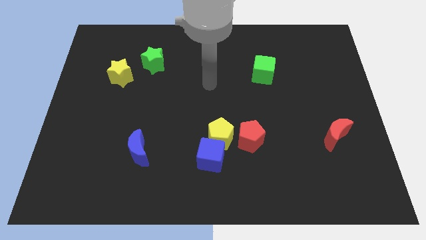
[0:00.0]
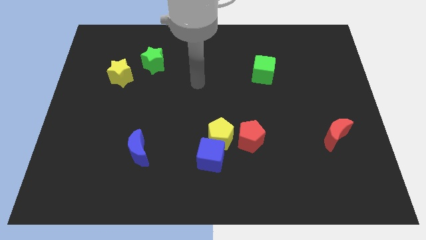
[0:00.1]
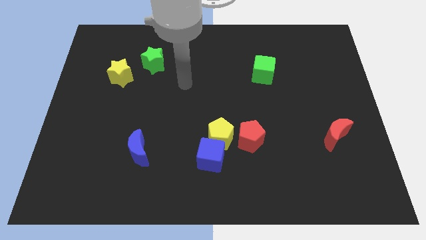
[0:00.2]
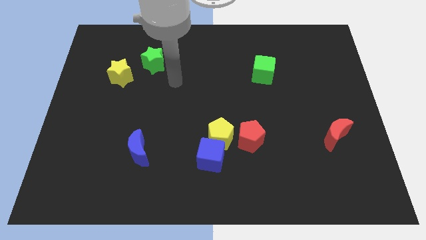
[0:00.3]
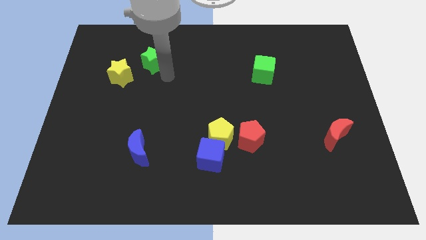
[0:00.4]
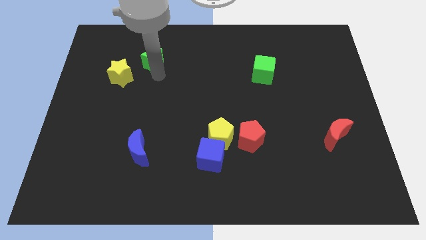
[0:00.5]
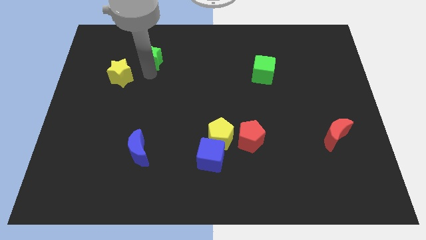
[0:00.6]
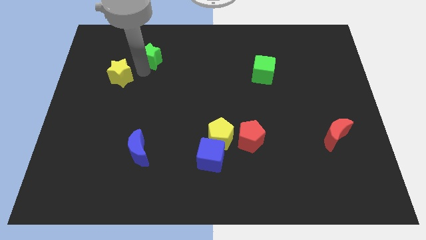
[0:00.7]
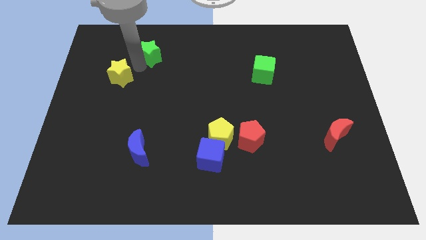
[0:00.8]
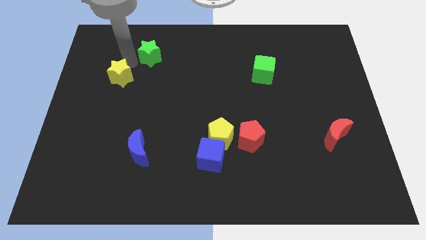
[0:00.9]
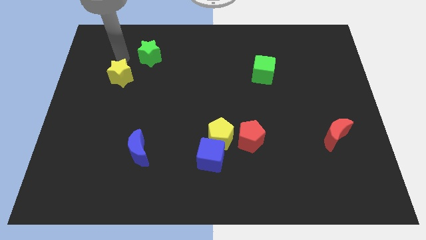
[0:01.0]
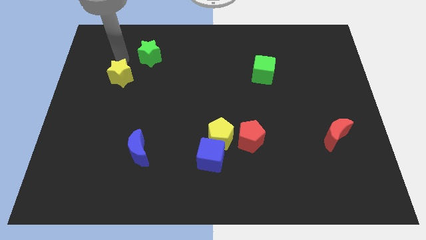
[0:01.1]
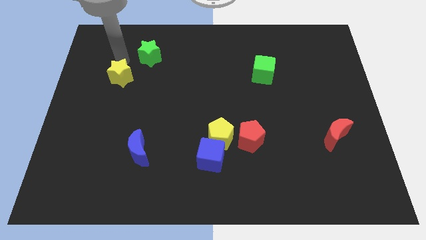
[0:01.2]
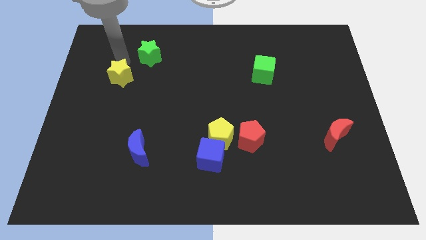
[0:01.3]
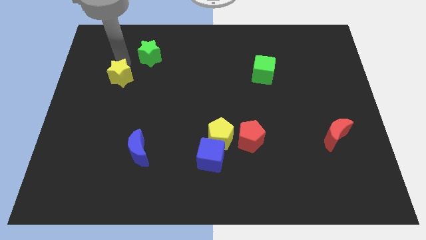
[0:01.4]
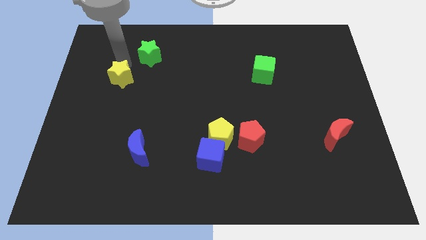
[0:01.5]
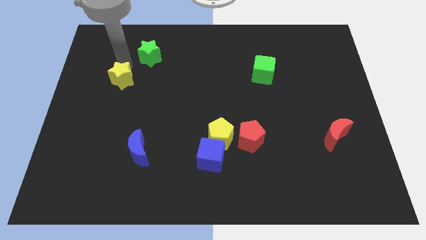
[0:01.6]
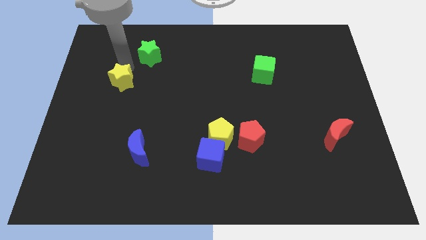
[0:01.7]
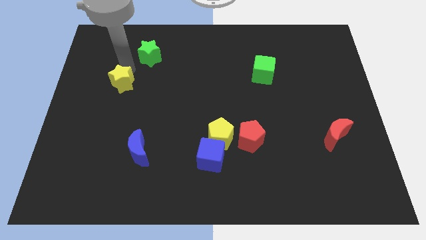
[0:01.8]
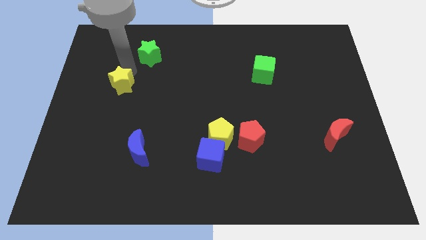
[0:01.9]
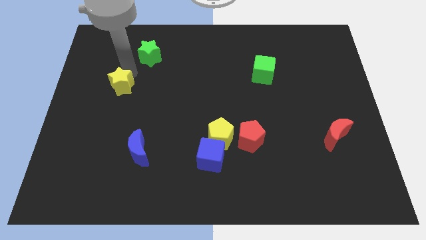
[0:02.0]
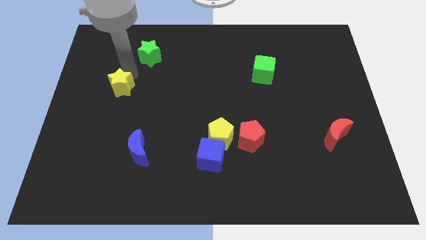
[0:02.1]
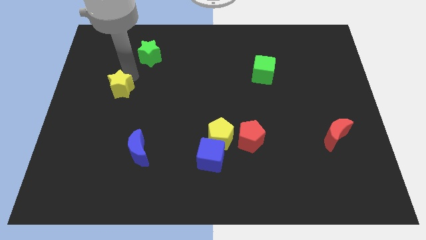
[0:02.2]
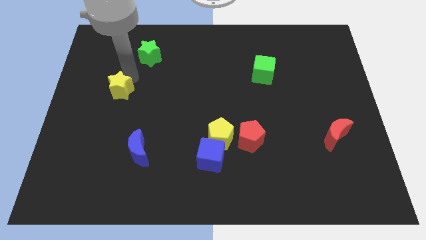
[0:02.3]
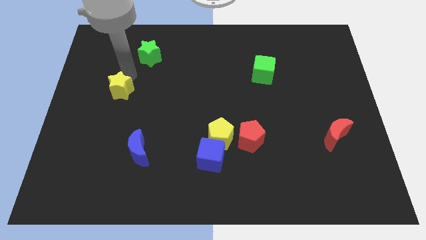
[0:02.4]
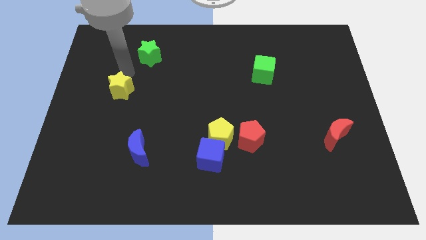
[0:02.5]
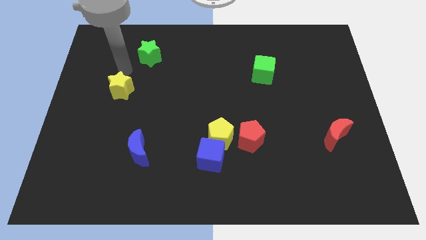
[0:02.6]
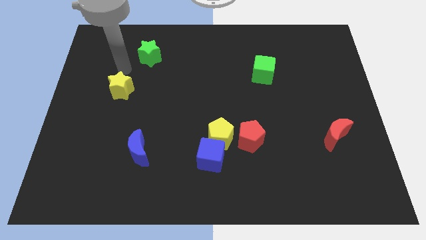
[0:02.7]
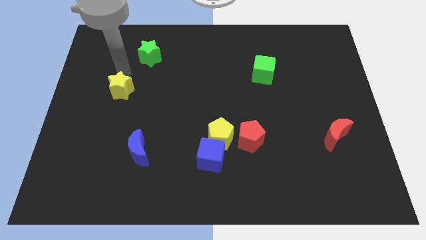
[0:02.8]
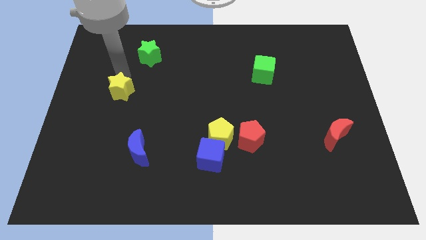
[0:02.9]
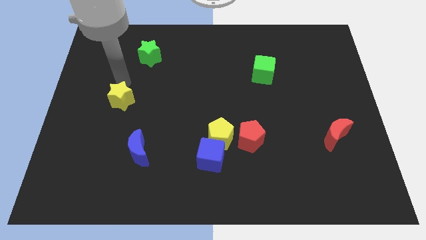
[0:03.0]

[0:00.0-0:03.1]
move the yellow star slightly down

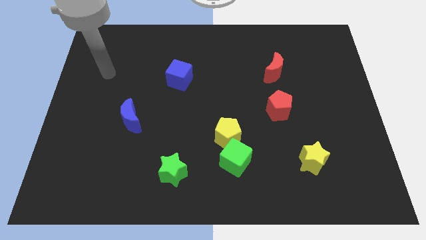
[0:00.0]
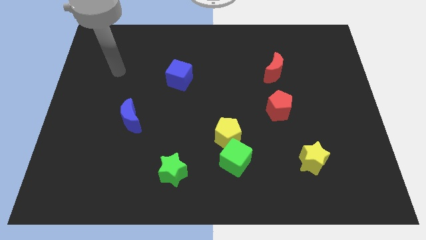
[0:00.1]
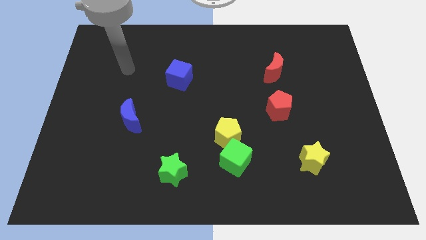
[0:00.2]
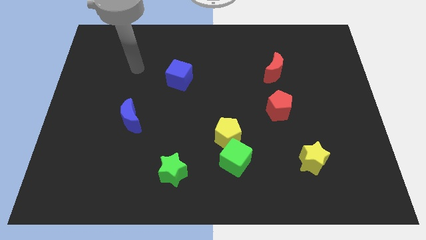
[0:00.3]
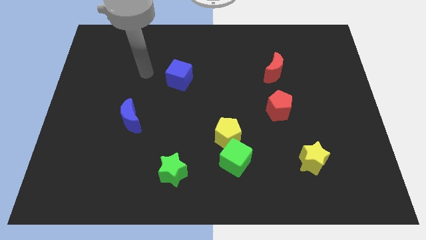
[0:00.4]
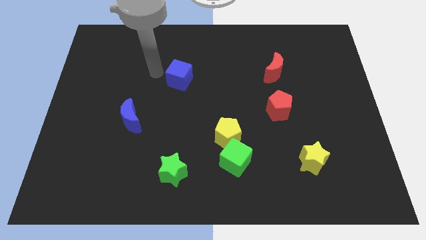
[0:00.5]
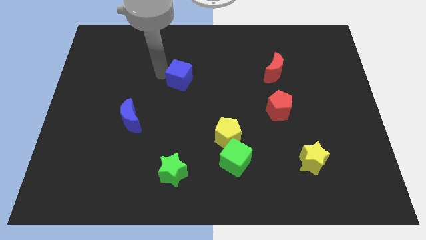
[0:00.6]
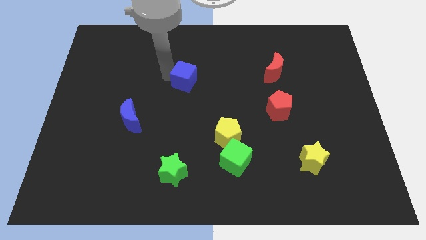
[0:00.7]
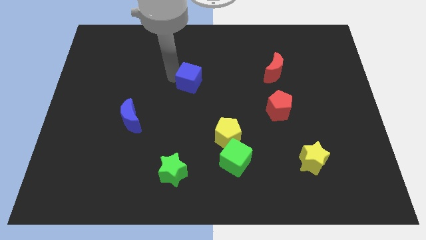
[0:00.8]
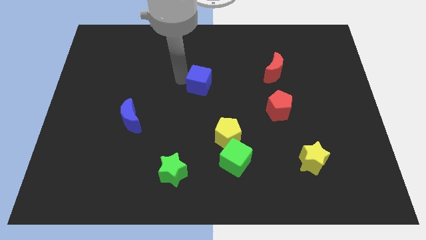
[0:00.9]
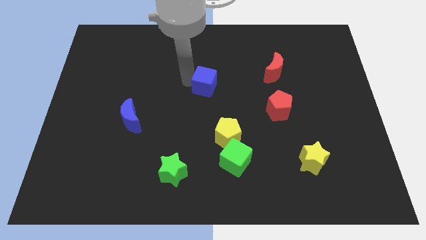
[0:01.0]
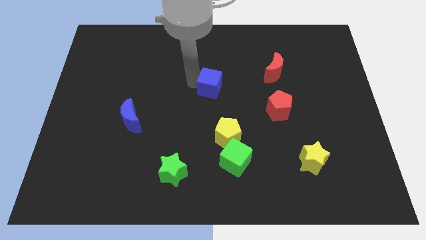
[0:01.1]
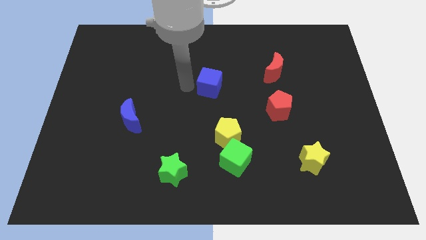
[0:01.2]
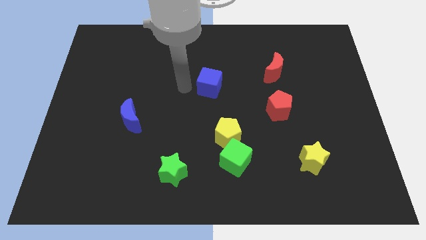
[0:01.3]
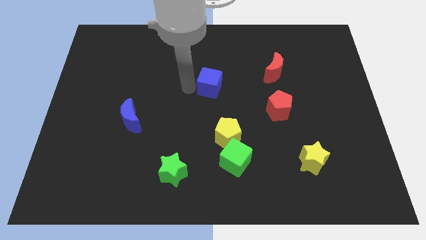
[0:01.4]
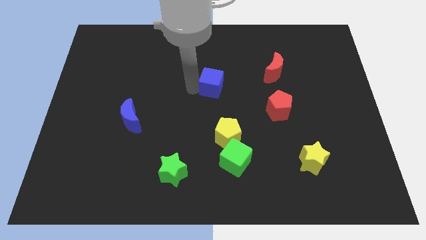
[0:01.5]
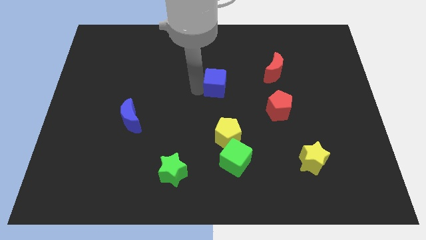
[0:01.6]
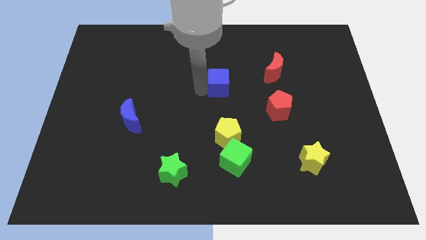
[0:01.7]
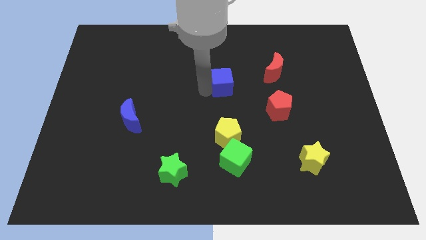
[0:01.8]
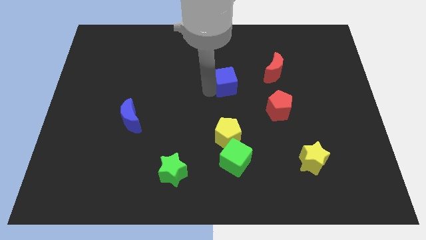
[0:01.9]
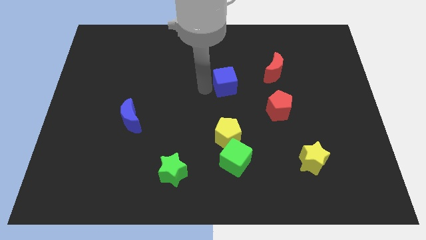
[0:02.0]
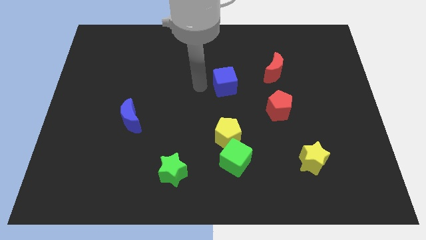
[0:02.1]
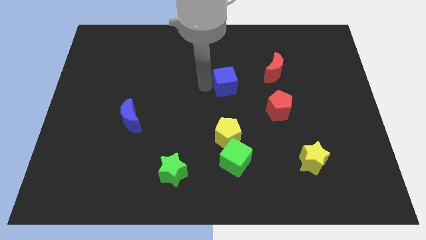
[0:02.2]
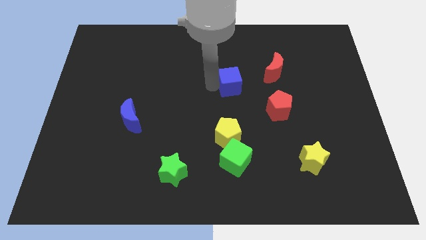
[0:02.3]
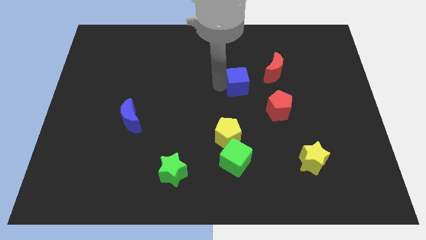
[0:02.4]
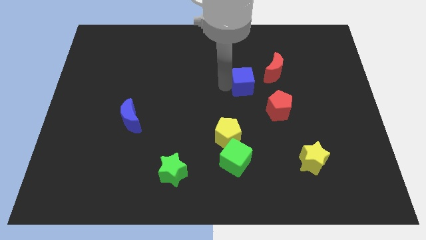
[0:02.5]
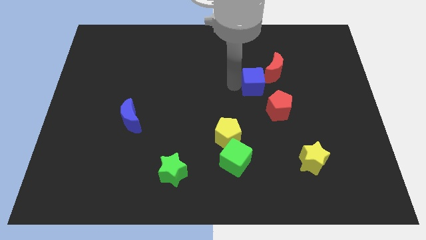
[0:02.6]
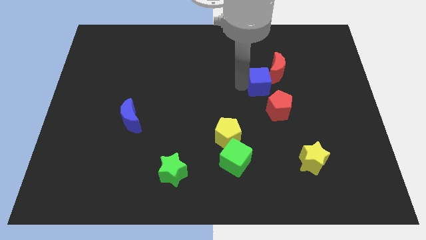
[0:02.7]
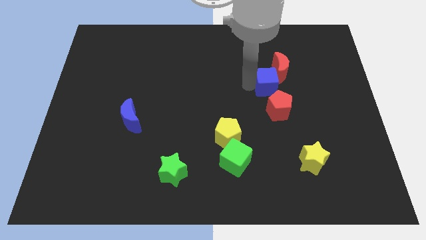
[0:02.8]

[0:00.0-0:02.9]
push the blue cube to the right

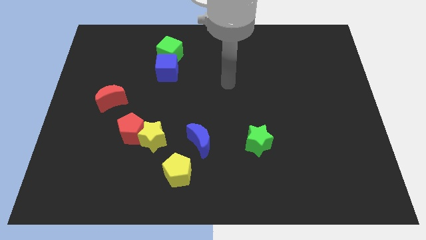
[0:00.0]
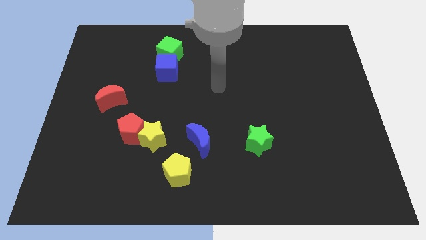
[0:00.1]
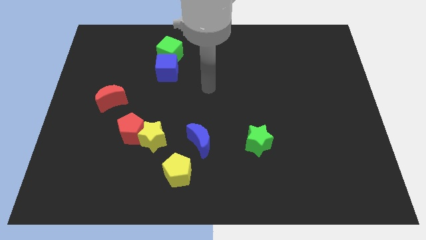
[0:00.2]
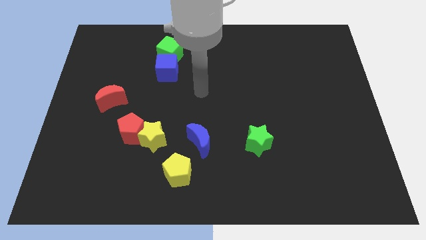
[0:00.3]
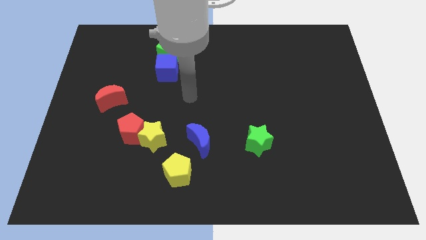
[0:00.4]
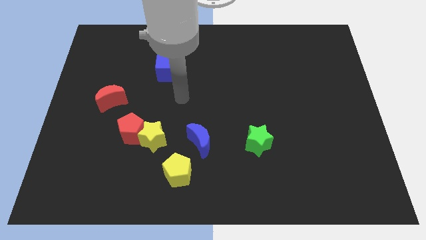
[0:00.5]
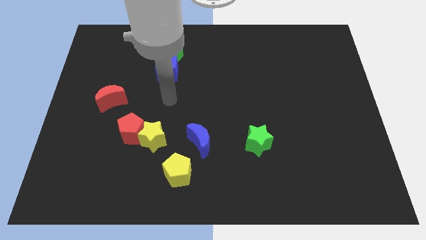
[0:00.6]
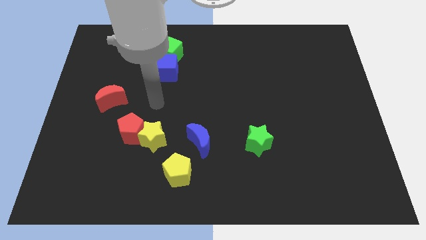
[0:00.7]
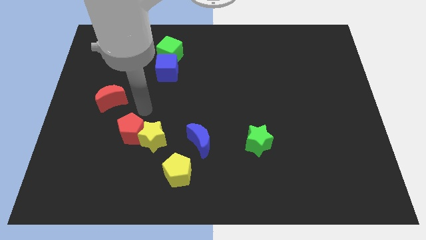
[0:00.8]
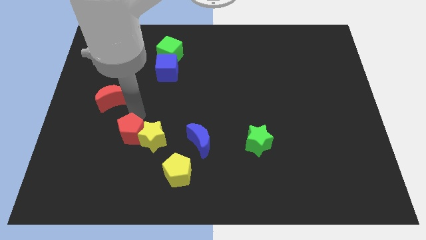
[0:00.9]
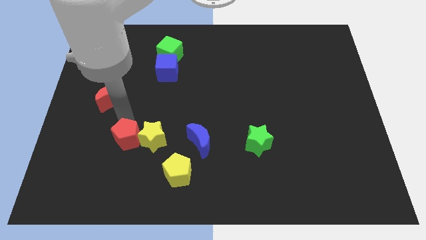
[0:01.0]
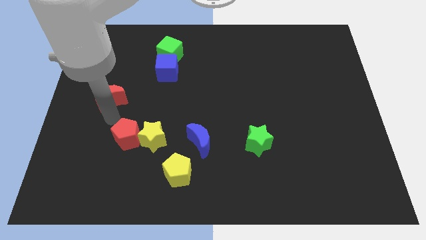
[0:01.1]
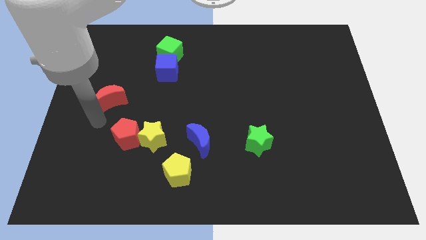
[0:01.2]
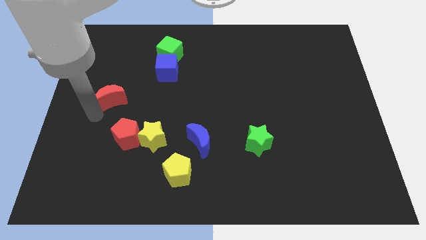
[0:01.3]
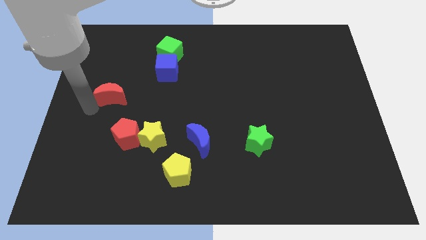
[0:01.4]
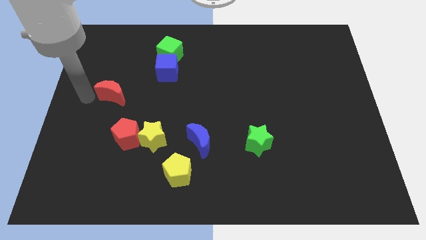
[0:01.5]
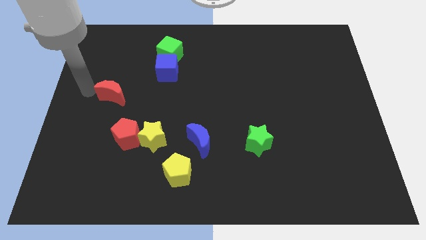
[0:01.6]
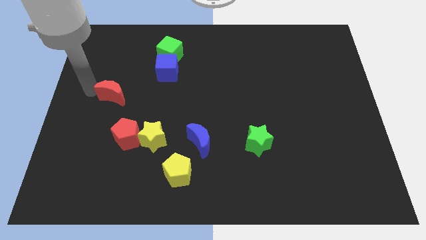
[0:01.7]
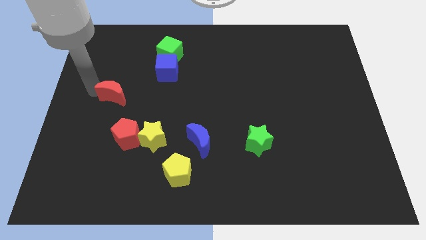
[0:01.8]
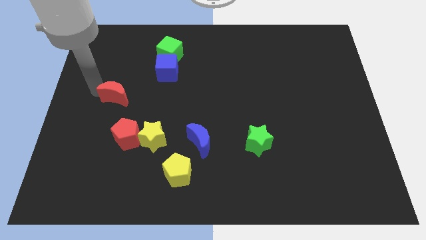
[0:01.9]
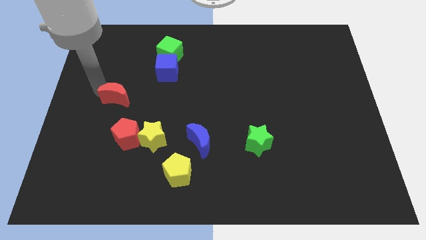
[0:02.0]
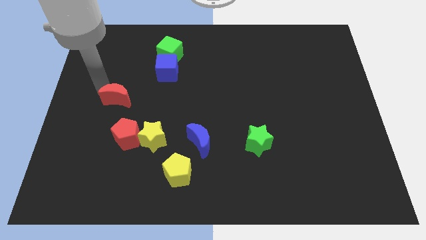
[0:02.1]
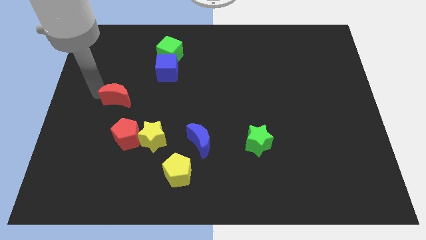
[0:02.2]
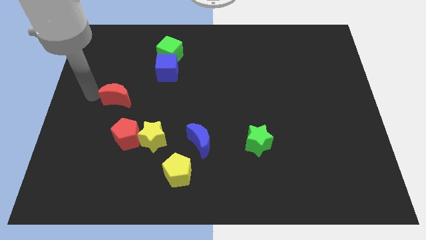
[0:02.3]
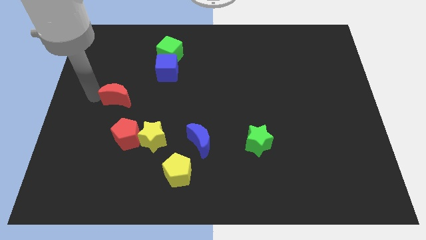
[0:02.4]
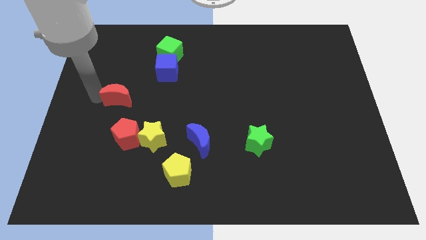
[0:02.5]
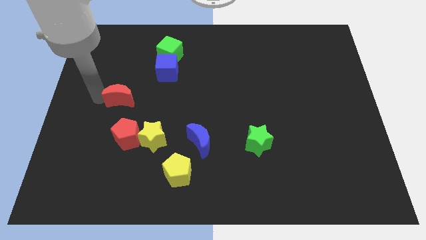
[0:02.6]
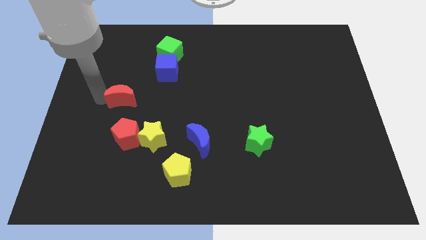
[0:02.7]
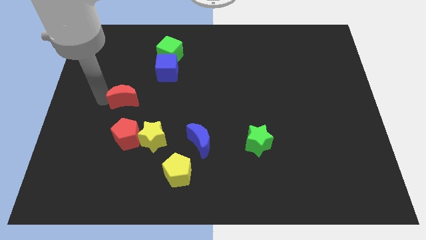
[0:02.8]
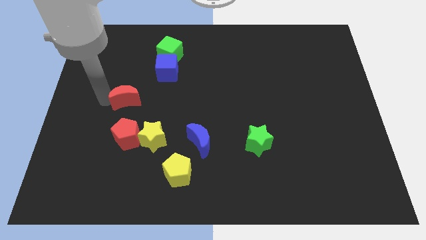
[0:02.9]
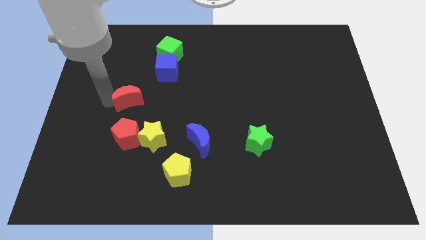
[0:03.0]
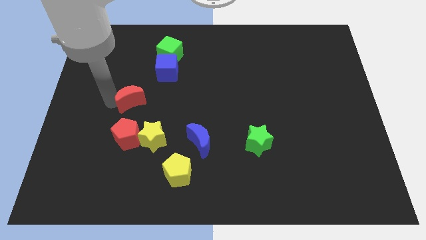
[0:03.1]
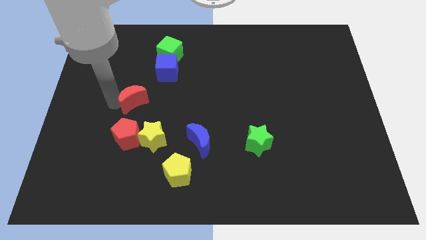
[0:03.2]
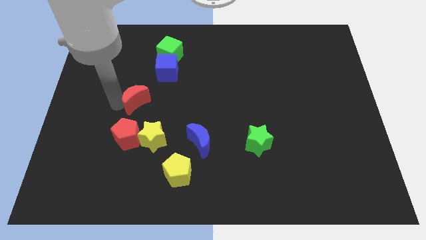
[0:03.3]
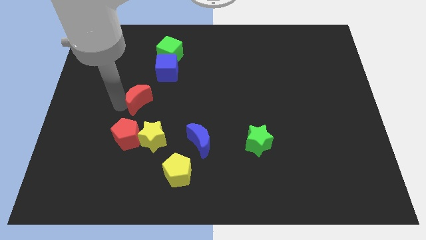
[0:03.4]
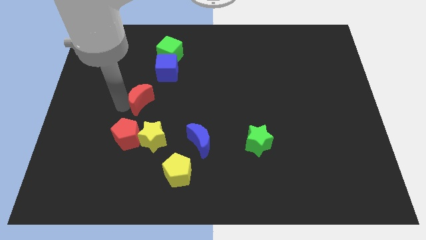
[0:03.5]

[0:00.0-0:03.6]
slightly move the red moon to the right
